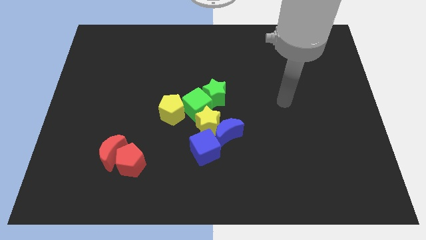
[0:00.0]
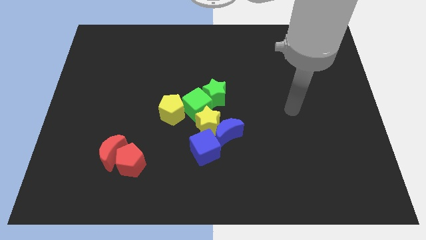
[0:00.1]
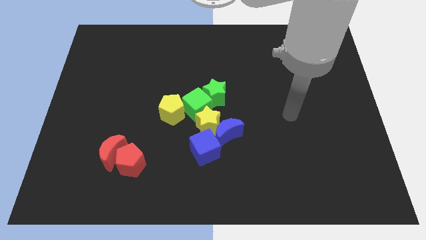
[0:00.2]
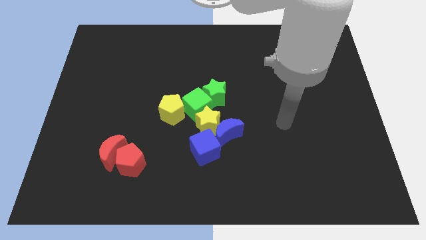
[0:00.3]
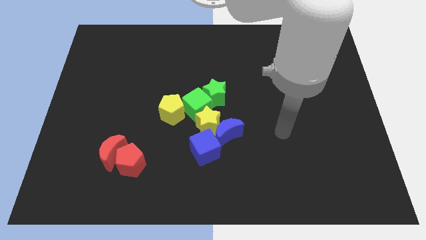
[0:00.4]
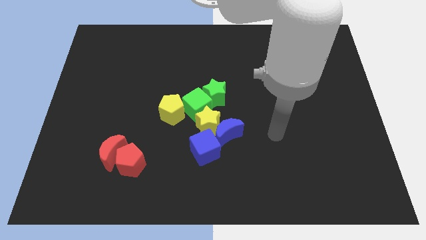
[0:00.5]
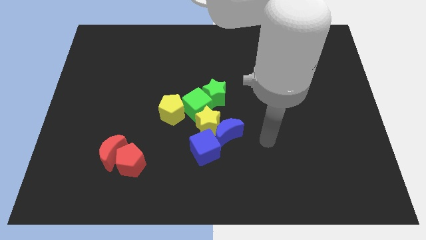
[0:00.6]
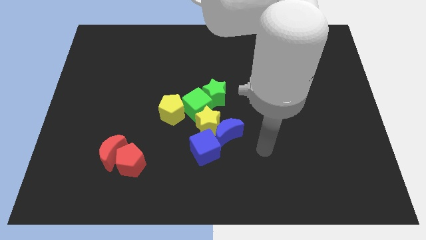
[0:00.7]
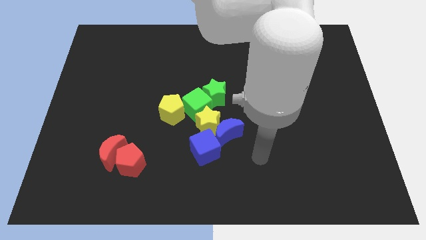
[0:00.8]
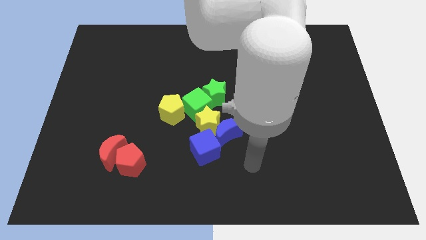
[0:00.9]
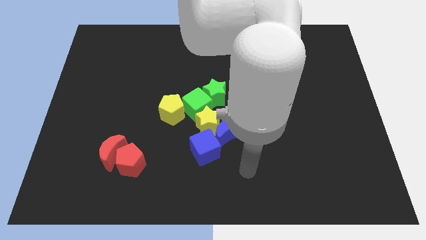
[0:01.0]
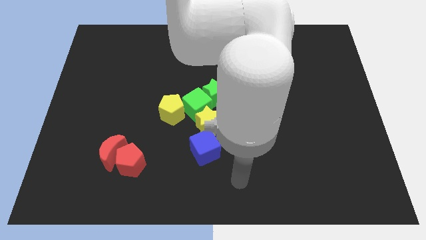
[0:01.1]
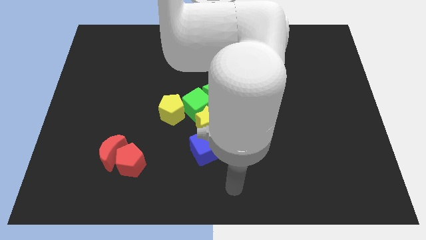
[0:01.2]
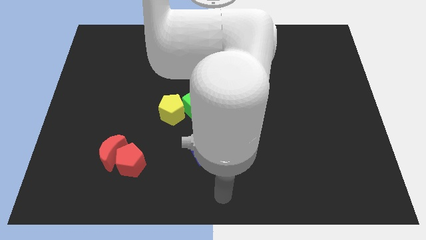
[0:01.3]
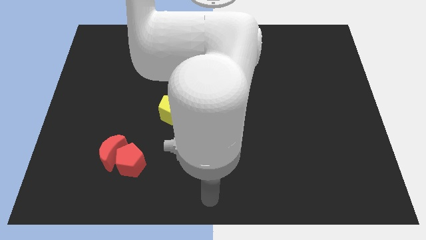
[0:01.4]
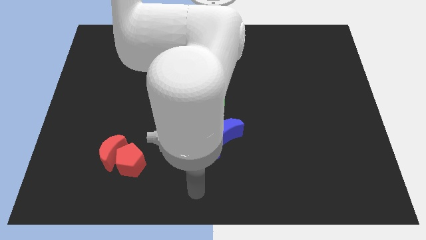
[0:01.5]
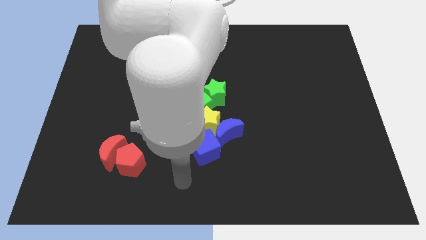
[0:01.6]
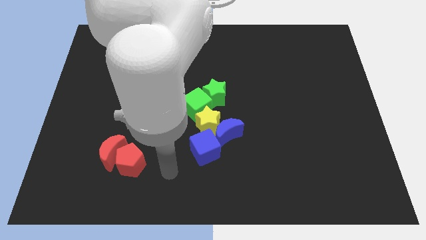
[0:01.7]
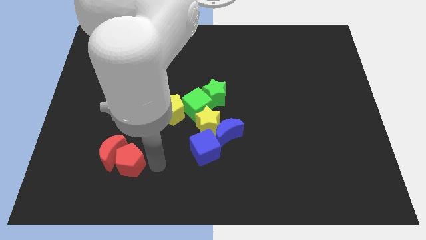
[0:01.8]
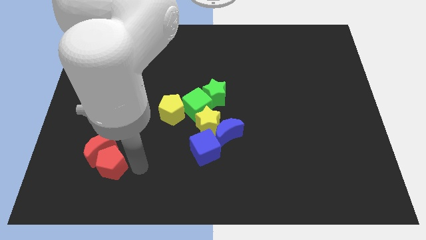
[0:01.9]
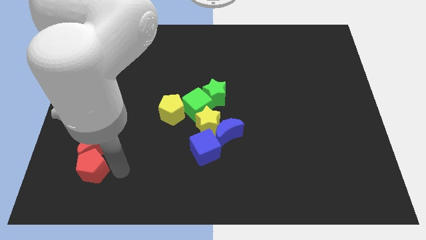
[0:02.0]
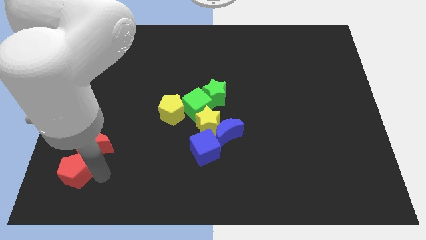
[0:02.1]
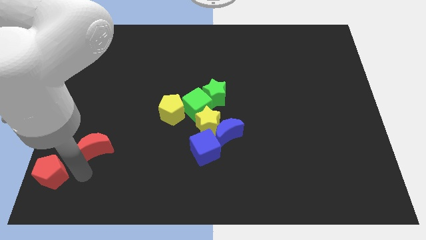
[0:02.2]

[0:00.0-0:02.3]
pull the red moon apart from the red pentagon

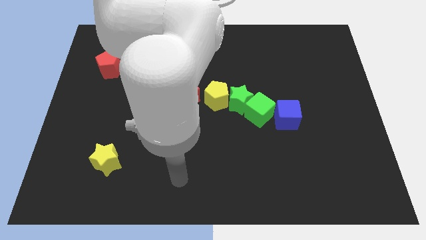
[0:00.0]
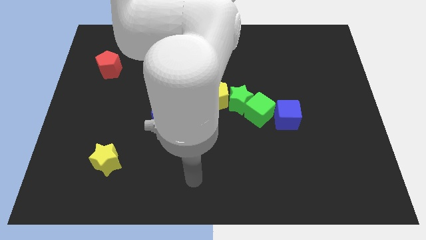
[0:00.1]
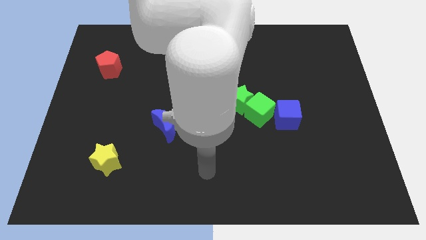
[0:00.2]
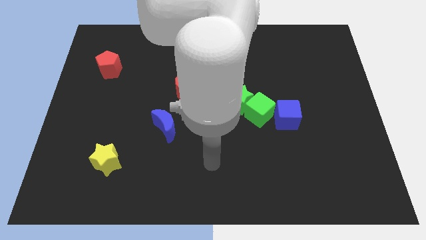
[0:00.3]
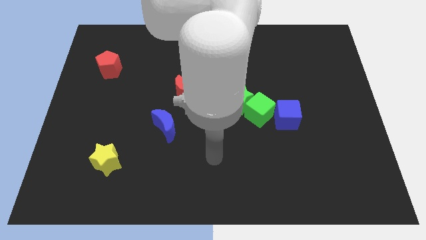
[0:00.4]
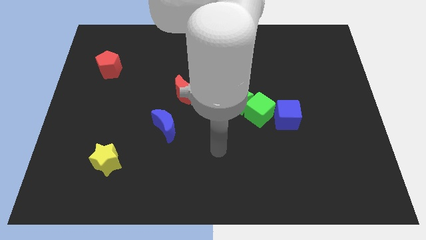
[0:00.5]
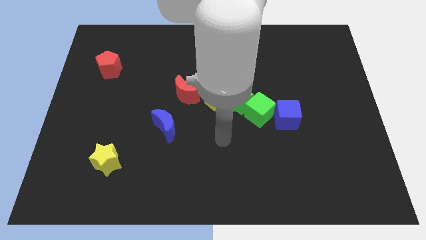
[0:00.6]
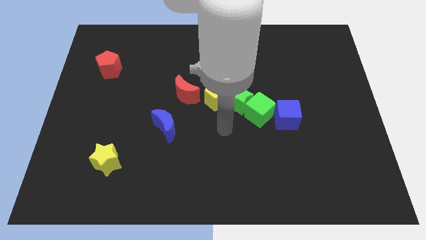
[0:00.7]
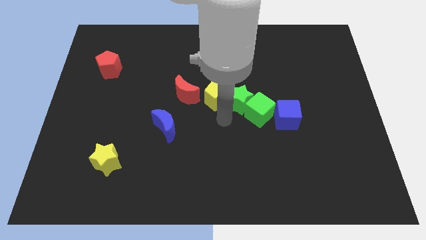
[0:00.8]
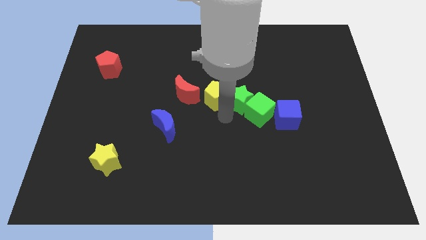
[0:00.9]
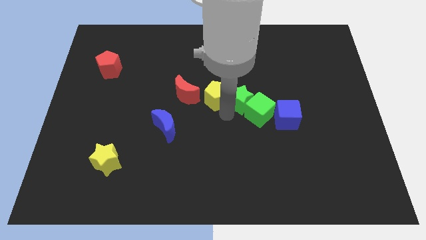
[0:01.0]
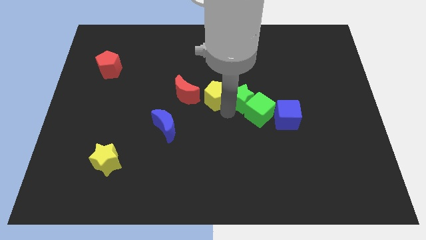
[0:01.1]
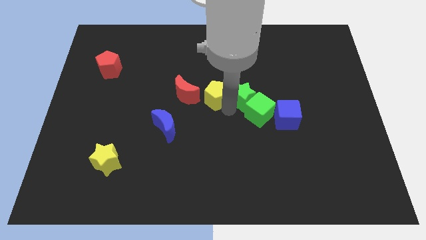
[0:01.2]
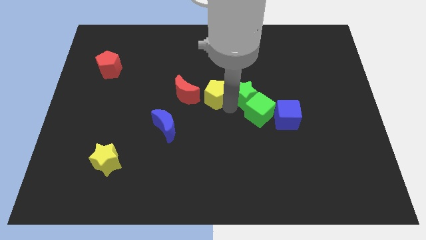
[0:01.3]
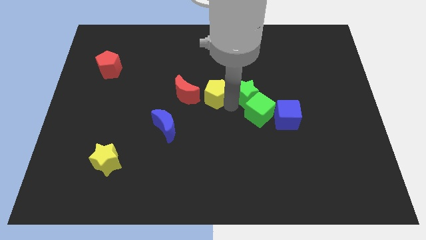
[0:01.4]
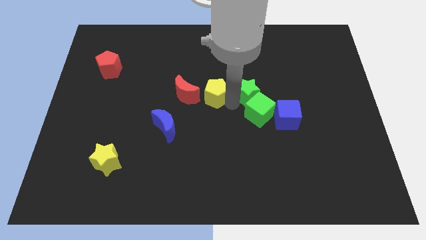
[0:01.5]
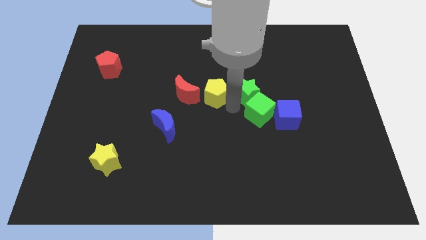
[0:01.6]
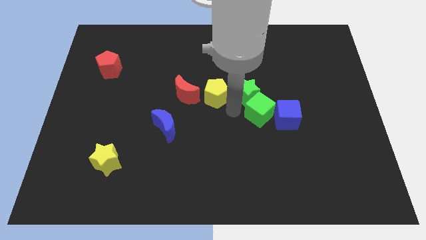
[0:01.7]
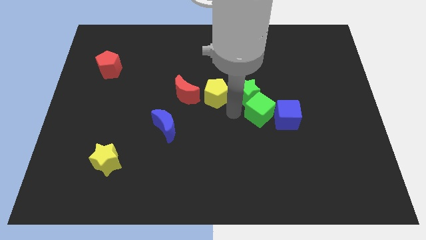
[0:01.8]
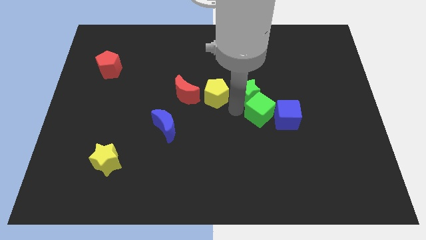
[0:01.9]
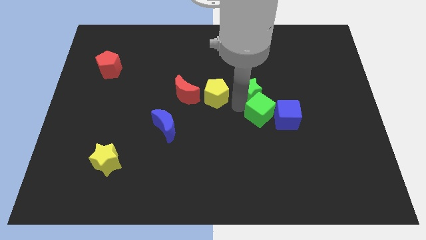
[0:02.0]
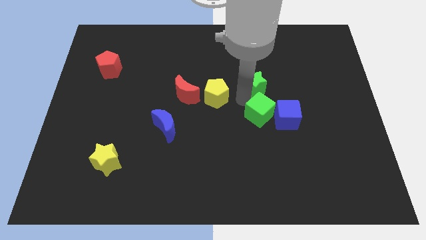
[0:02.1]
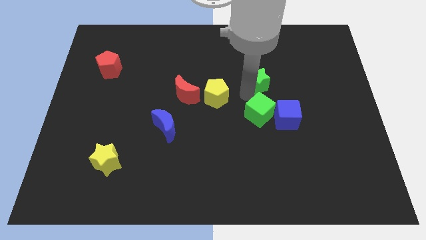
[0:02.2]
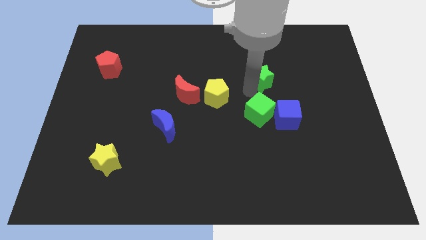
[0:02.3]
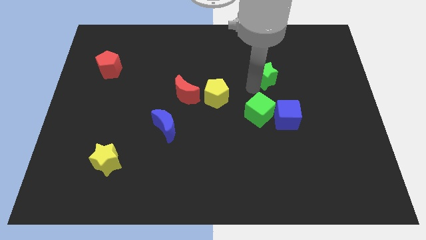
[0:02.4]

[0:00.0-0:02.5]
pull the green star apart from the green cube and yellow pentagon

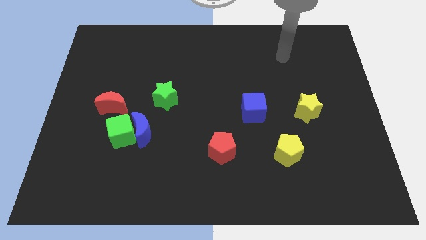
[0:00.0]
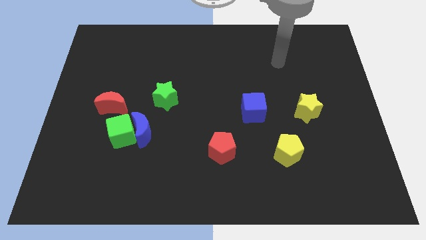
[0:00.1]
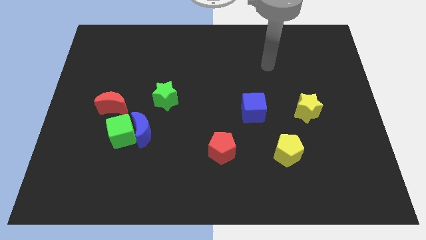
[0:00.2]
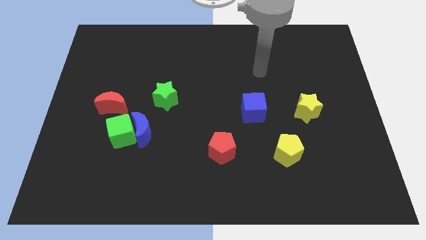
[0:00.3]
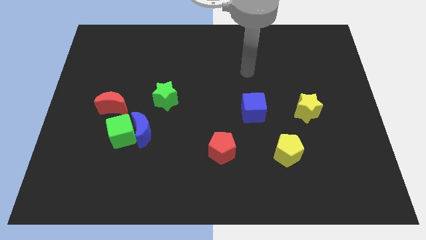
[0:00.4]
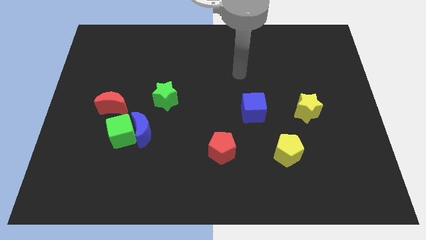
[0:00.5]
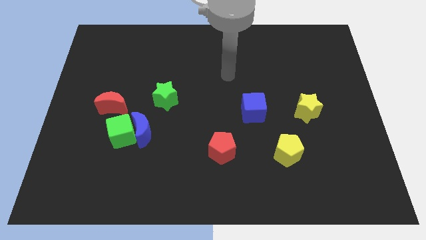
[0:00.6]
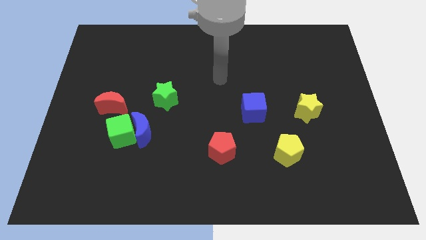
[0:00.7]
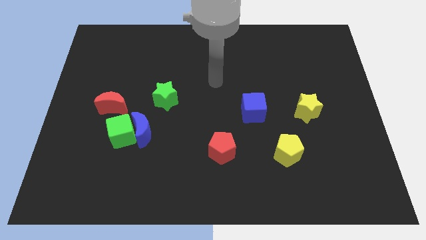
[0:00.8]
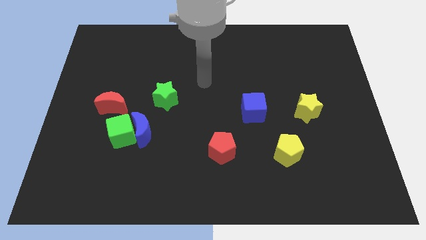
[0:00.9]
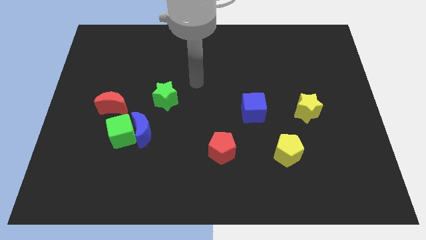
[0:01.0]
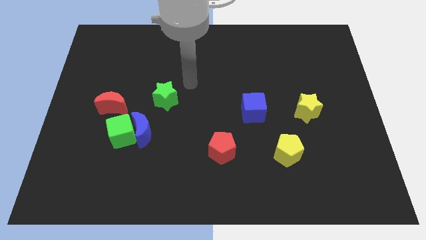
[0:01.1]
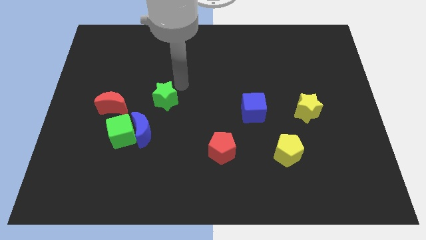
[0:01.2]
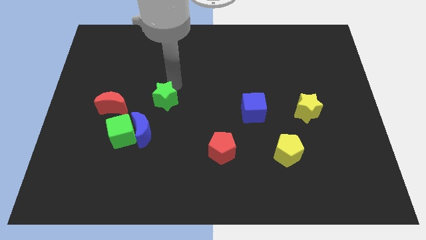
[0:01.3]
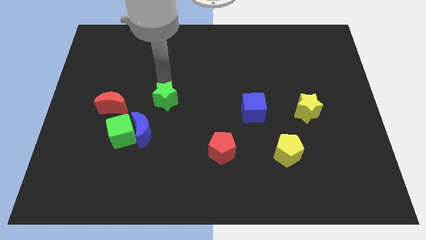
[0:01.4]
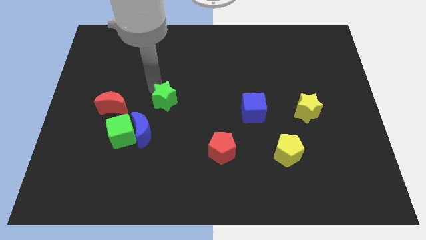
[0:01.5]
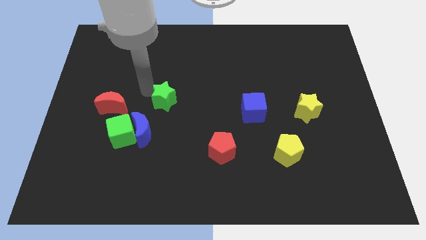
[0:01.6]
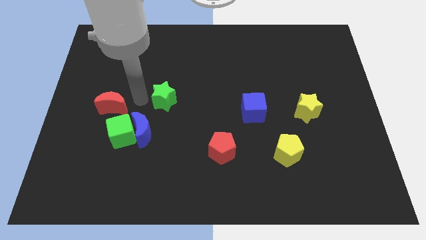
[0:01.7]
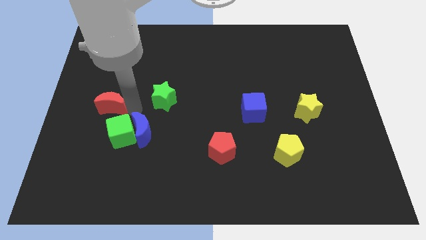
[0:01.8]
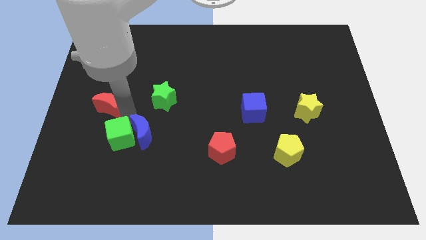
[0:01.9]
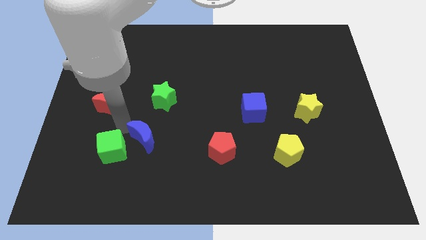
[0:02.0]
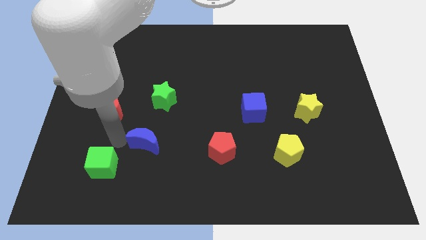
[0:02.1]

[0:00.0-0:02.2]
move the blue moon away from the green cube

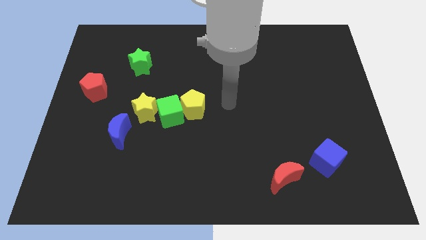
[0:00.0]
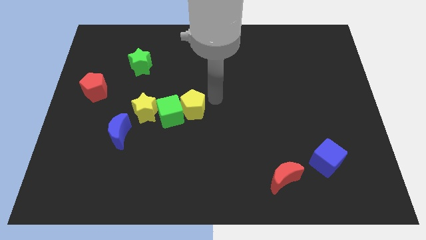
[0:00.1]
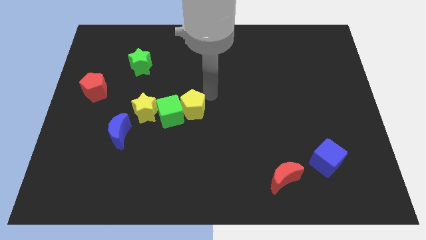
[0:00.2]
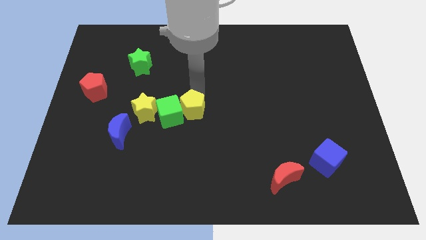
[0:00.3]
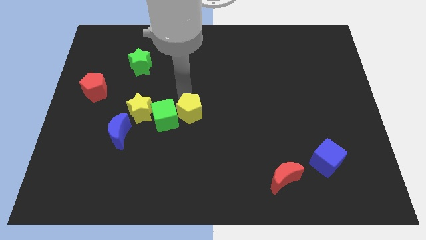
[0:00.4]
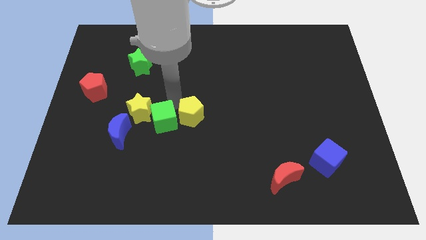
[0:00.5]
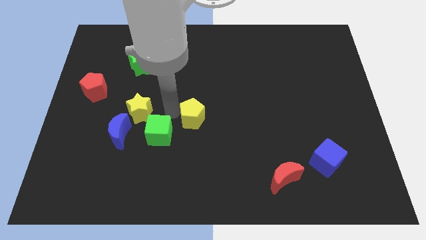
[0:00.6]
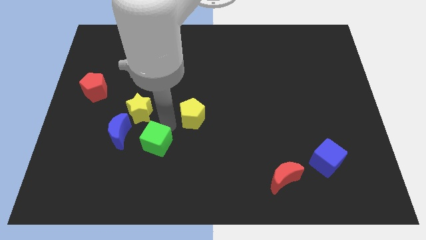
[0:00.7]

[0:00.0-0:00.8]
pull the yellow pentagon apart from the green cube

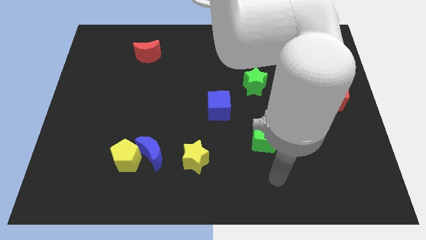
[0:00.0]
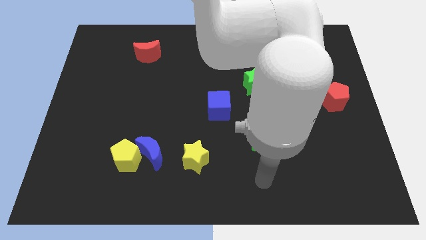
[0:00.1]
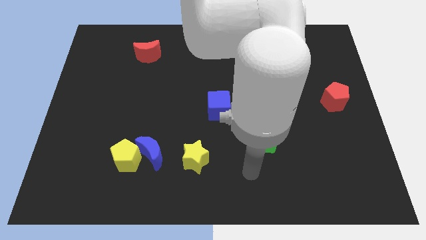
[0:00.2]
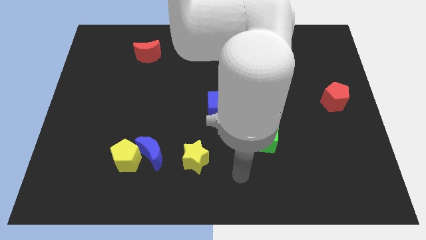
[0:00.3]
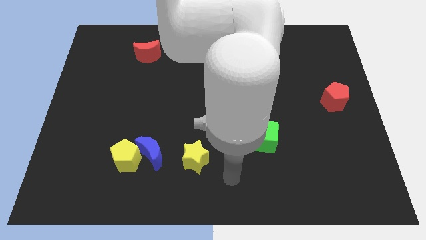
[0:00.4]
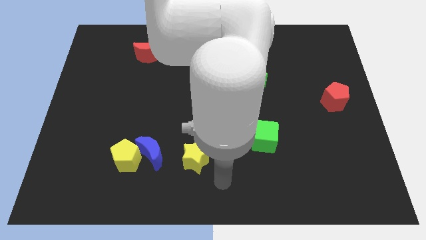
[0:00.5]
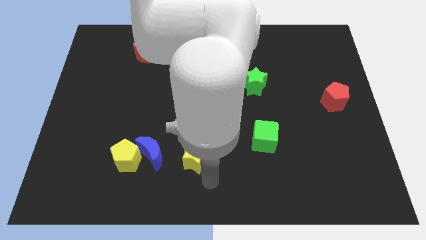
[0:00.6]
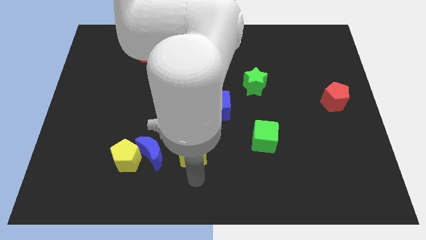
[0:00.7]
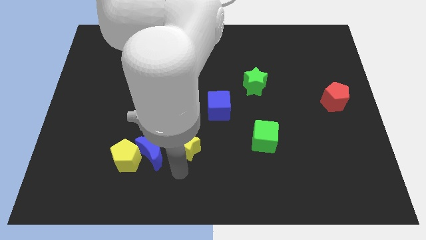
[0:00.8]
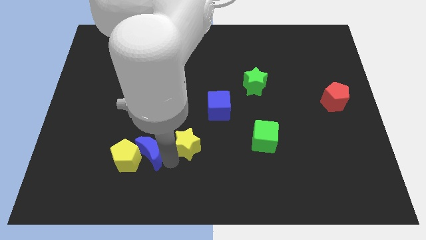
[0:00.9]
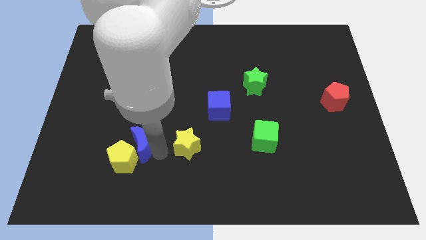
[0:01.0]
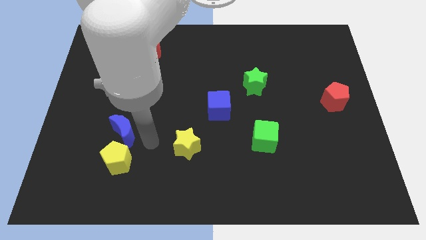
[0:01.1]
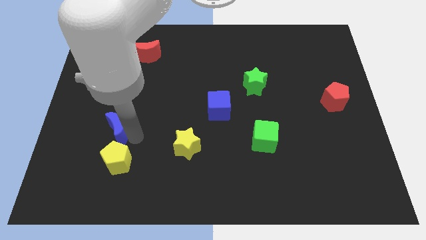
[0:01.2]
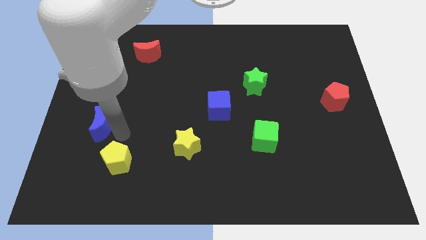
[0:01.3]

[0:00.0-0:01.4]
pull the yellow pentagon apart from the blue moon
